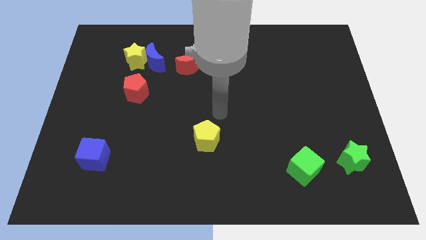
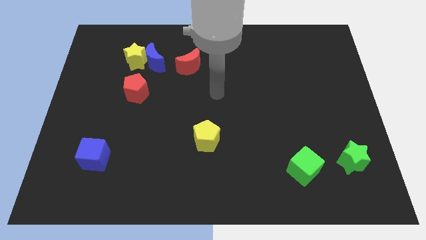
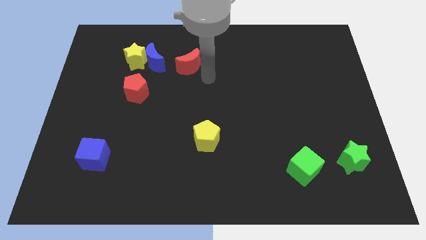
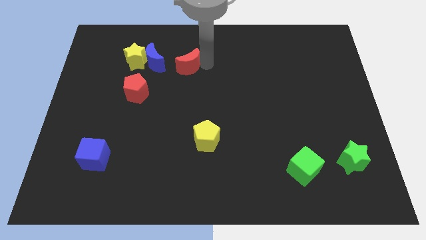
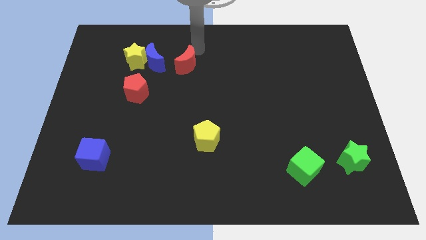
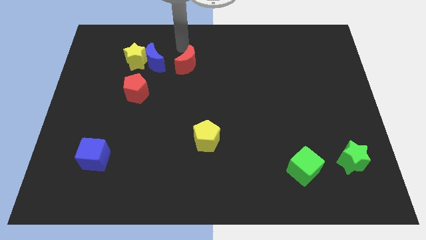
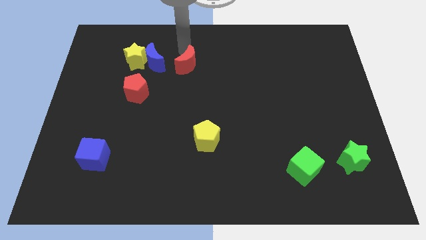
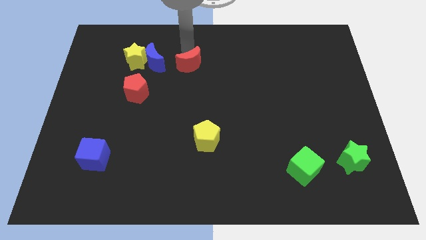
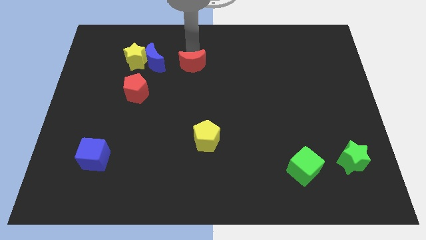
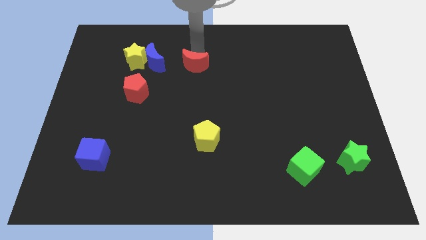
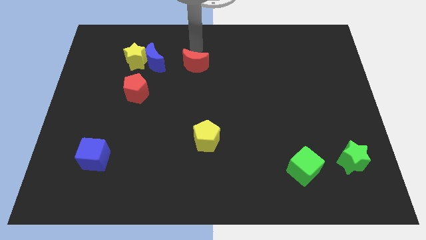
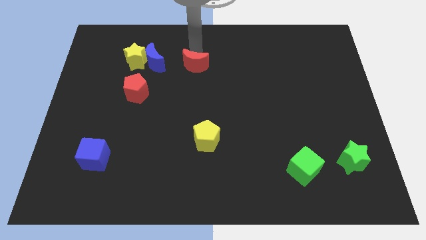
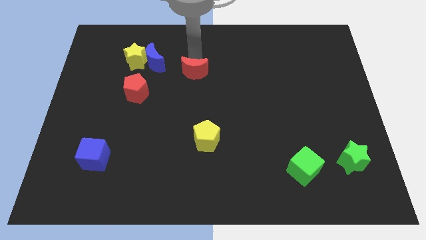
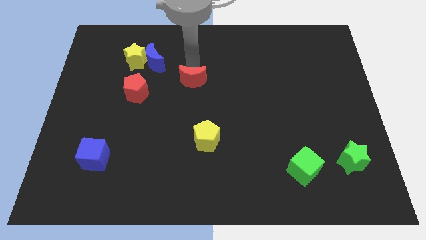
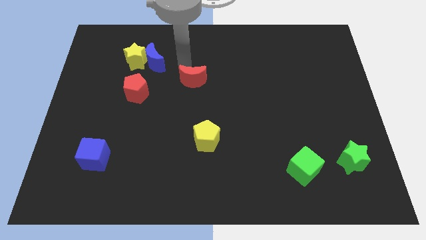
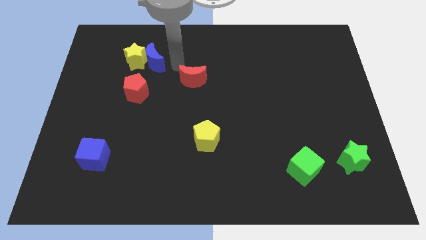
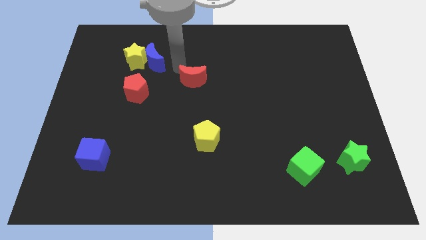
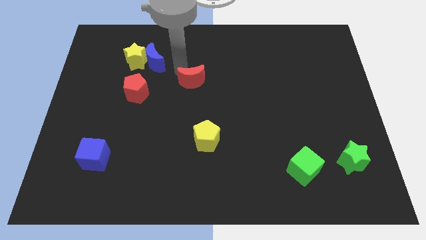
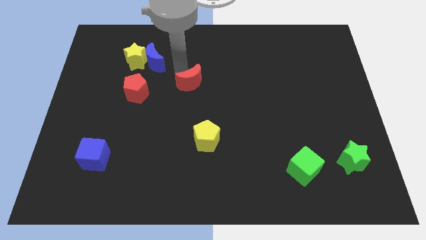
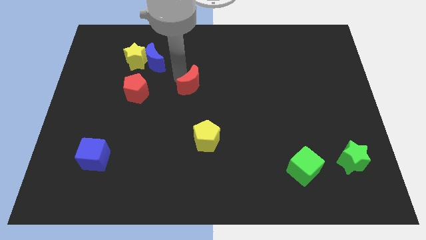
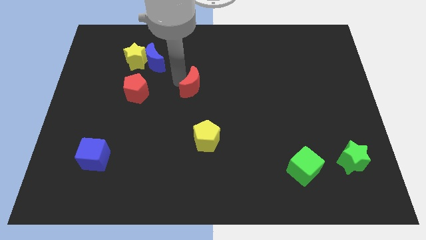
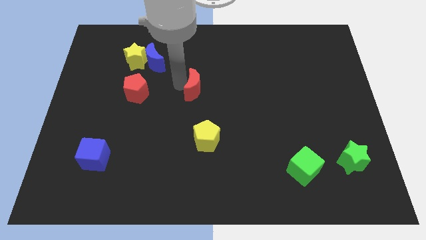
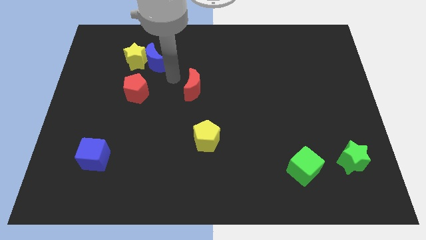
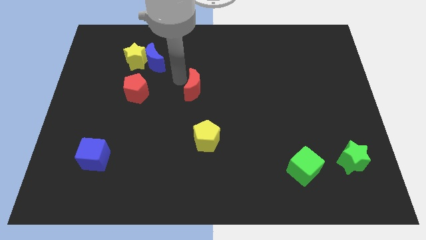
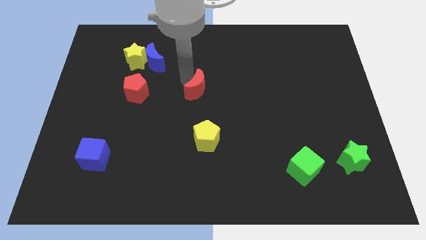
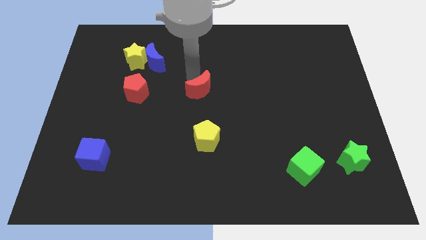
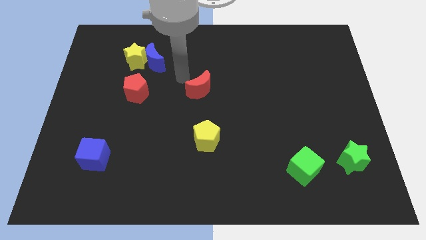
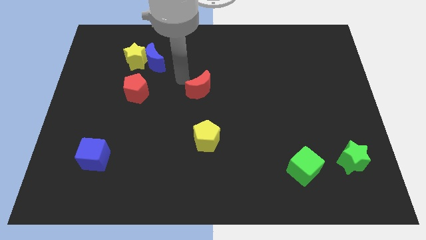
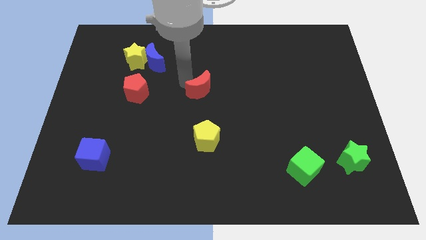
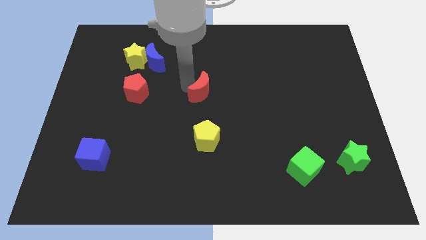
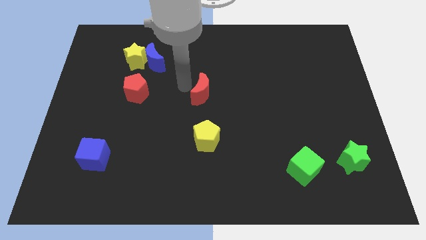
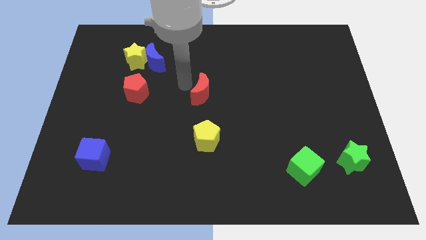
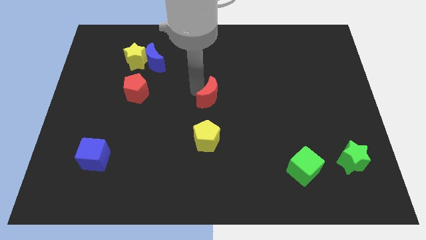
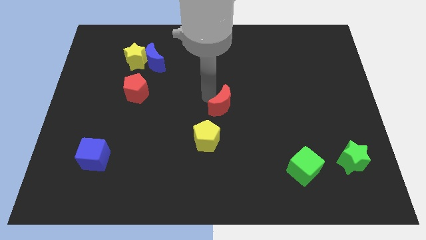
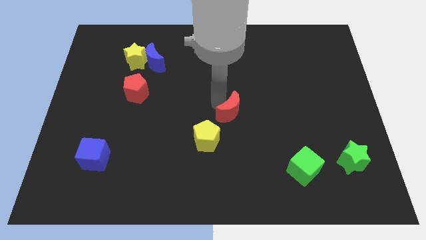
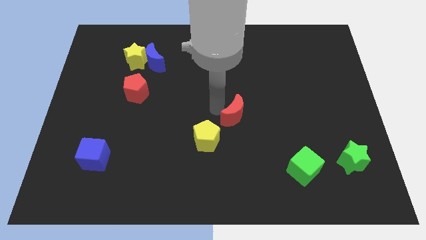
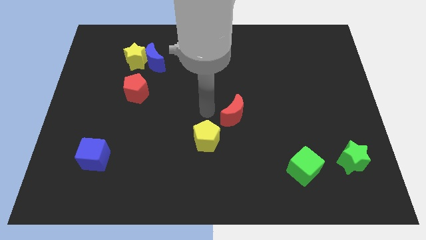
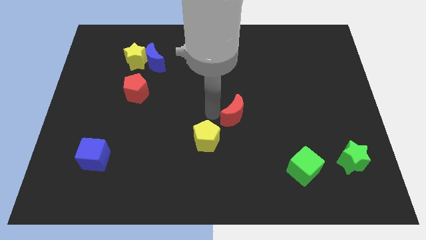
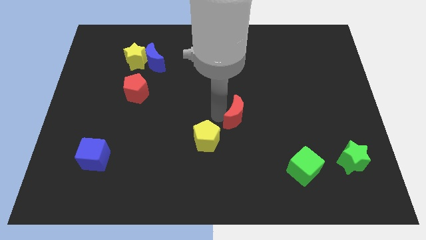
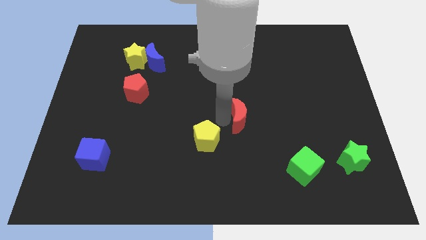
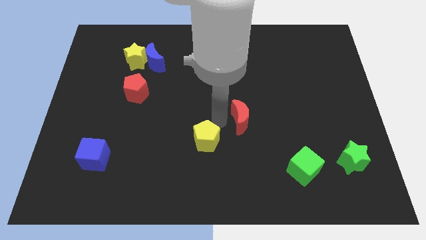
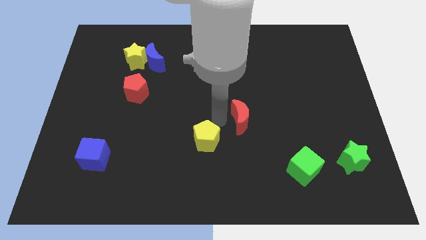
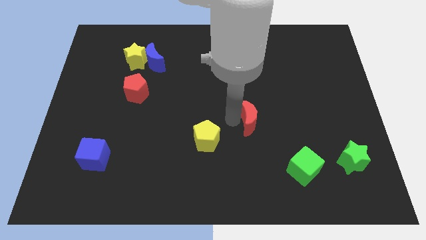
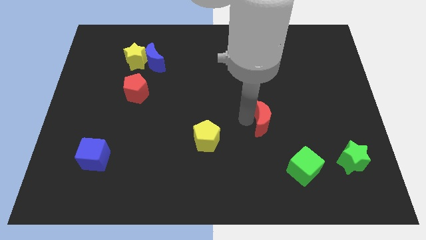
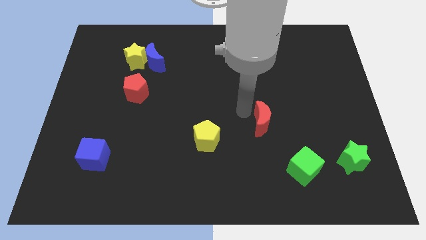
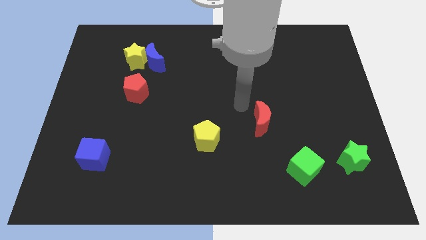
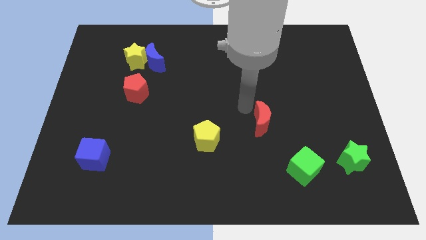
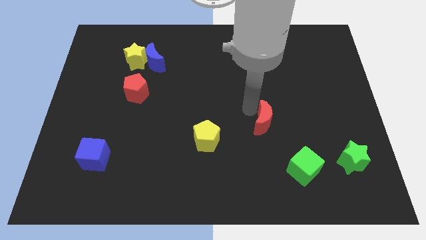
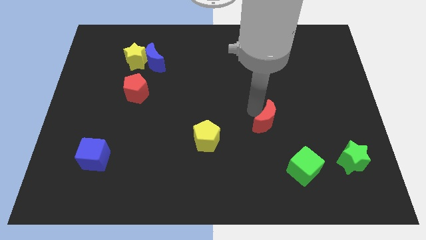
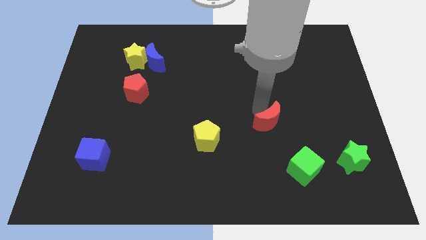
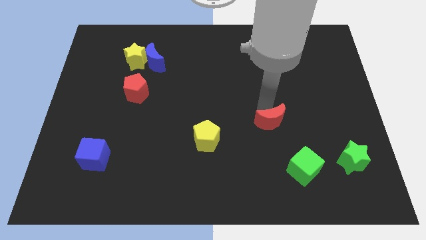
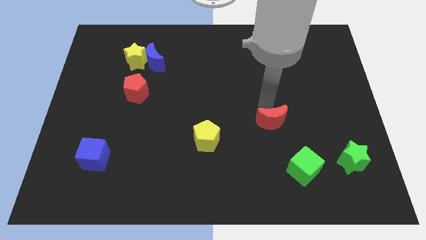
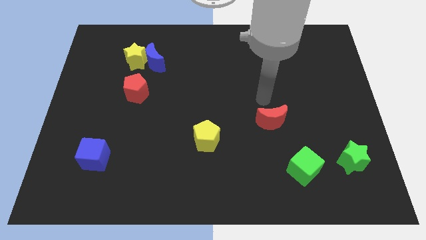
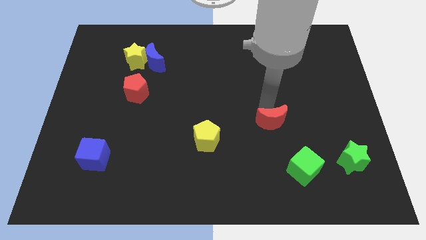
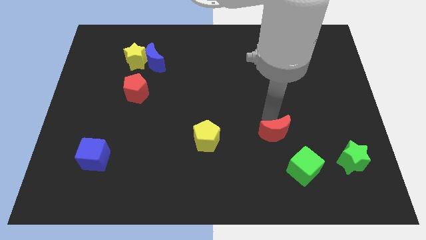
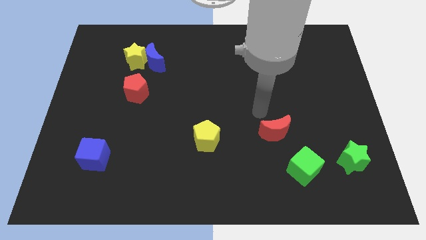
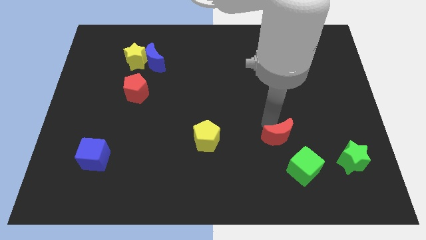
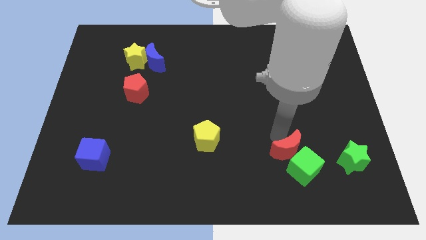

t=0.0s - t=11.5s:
move the red moon towards the green cube

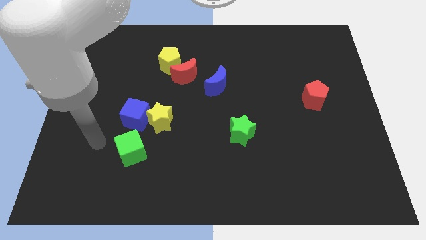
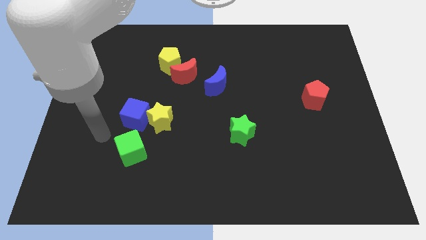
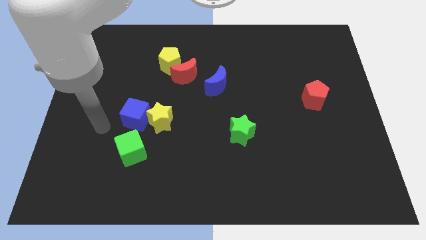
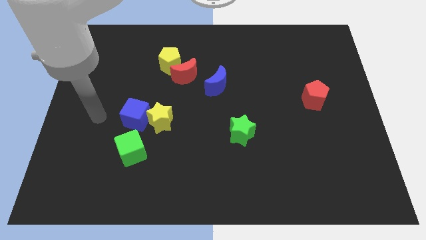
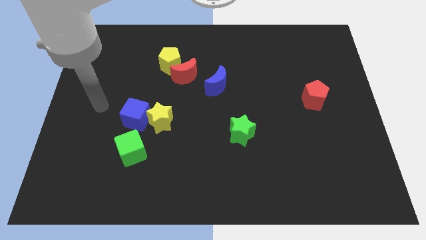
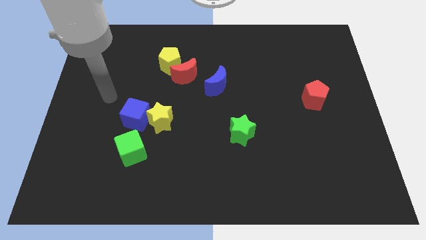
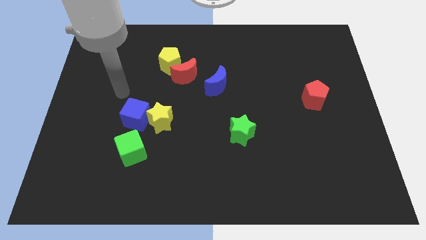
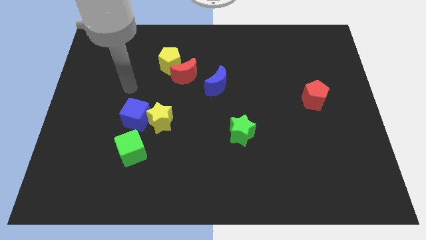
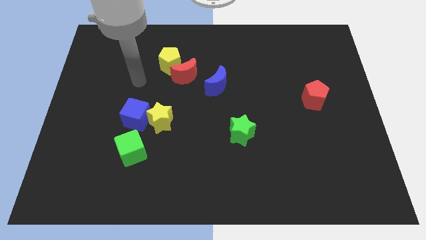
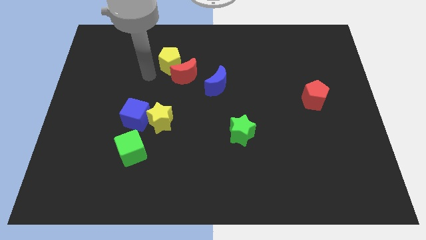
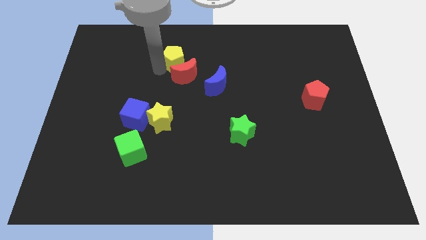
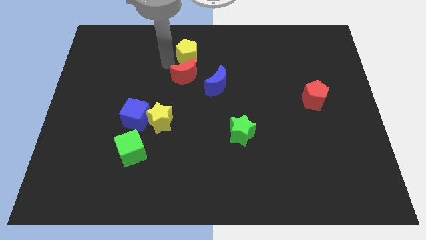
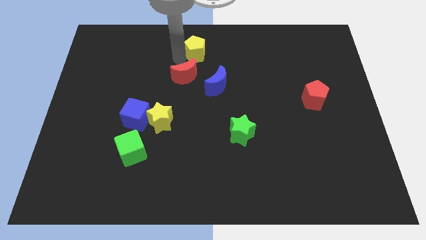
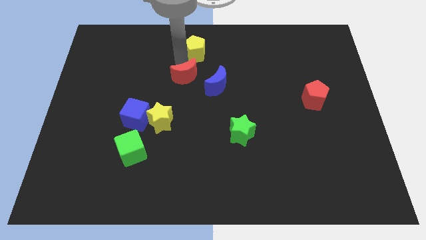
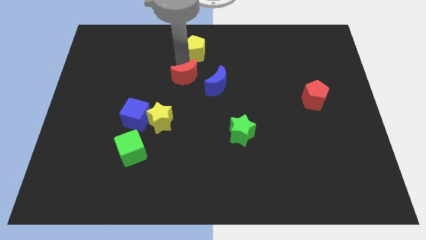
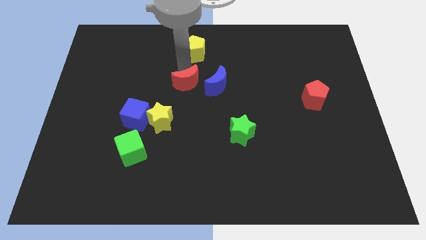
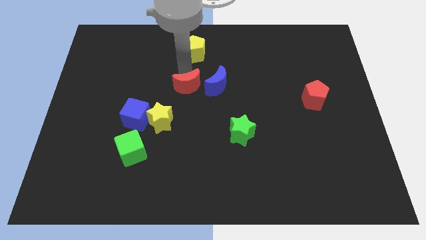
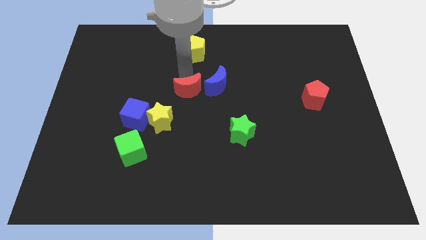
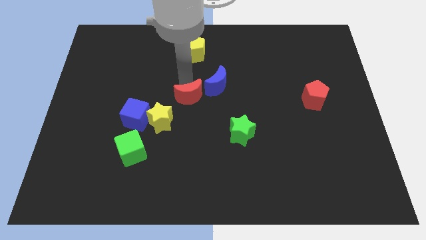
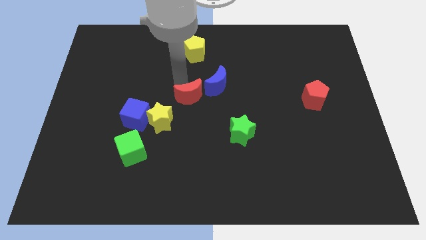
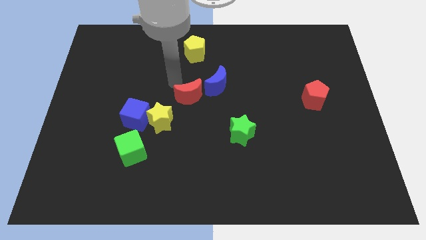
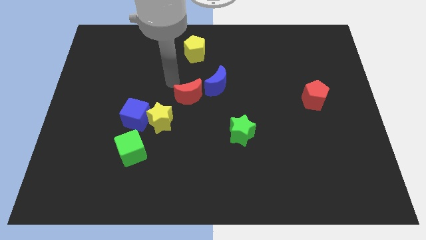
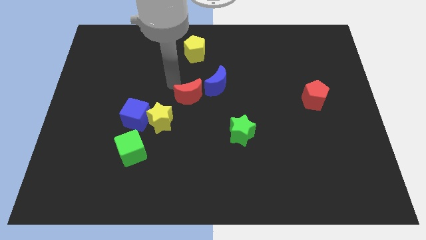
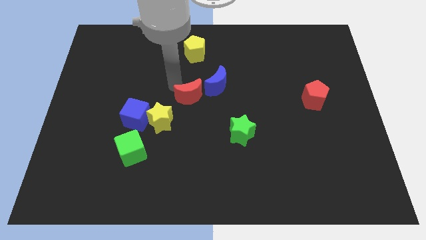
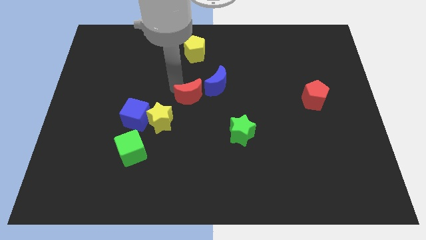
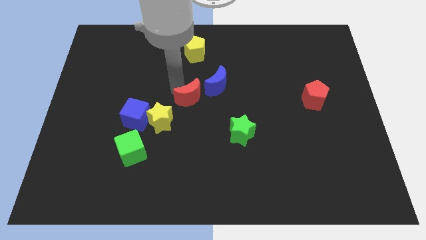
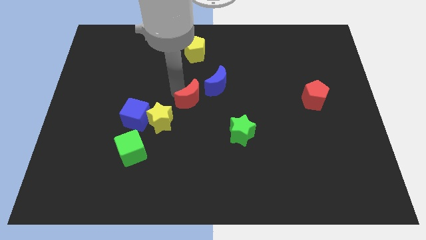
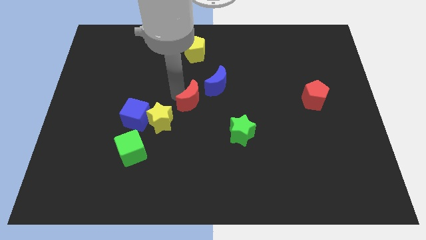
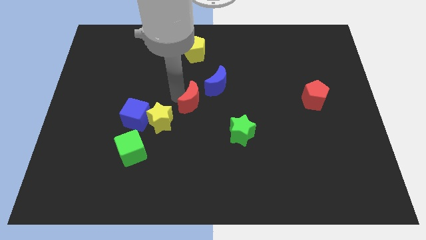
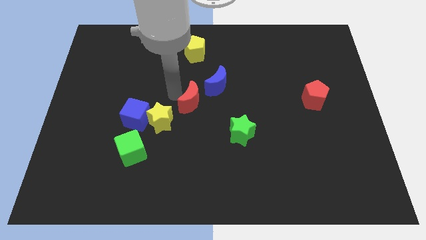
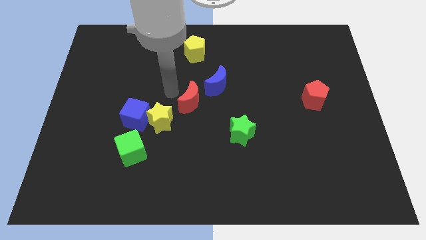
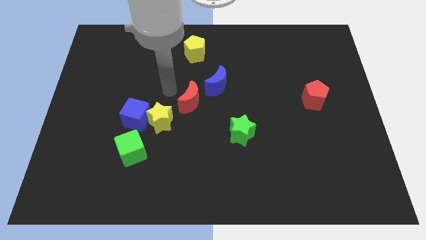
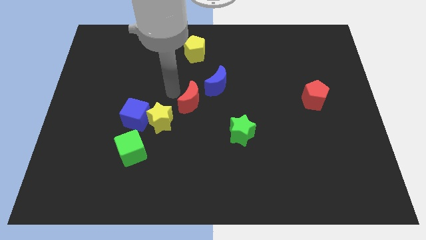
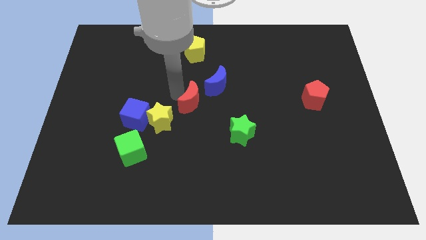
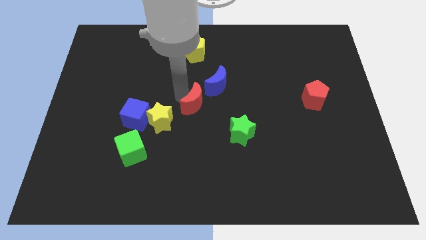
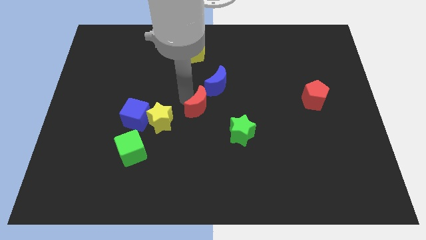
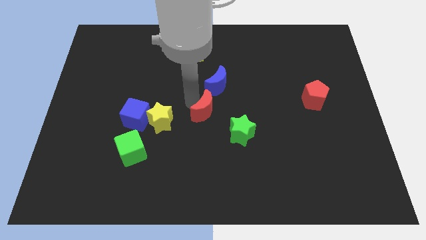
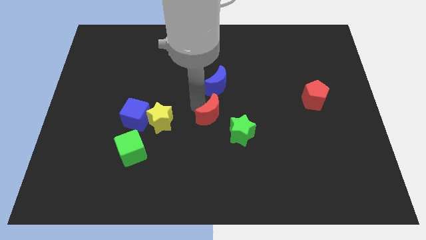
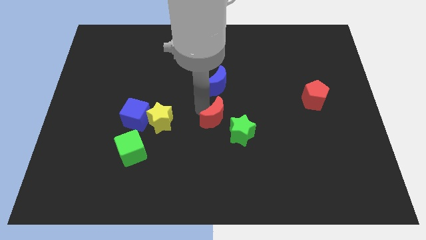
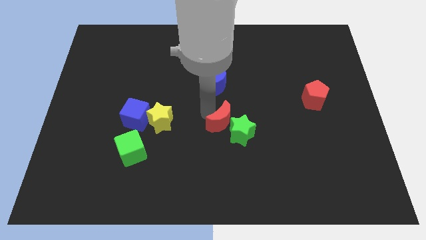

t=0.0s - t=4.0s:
slide the red moon close to the green star
